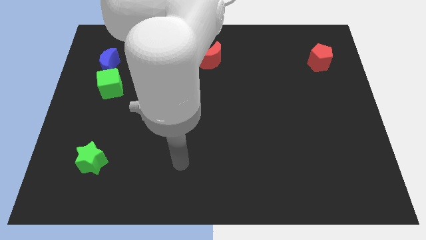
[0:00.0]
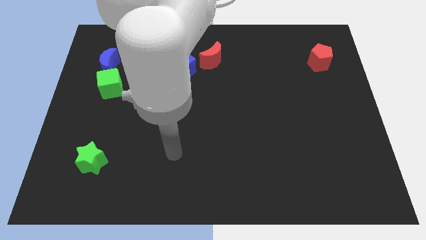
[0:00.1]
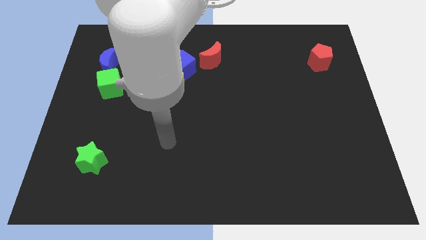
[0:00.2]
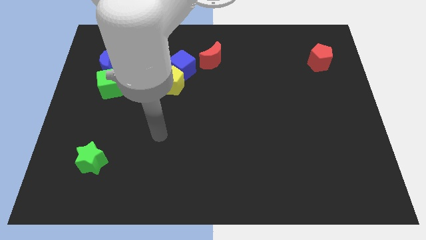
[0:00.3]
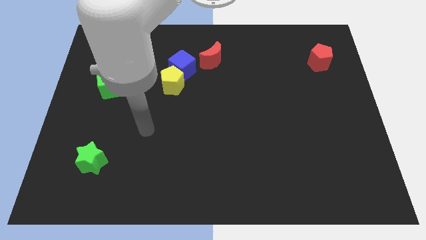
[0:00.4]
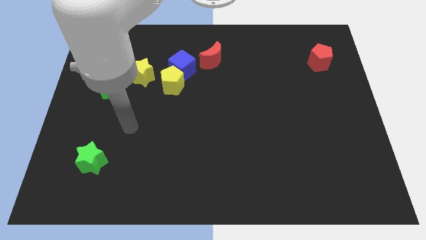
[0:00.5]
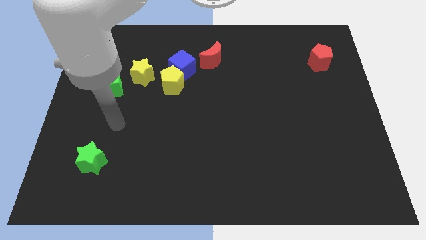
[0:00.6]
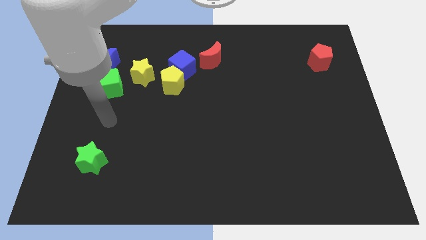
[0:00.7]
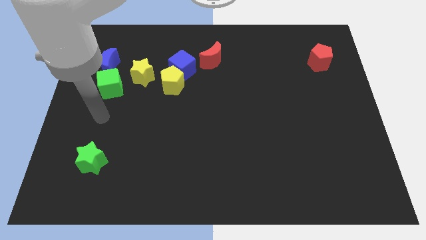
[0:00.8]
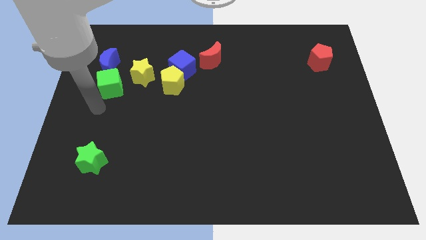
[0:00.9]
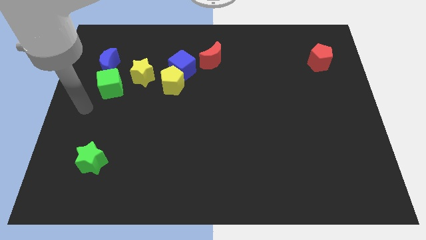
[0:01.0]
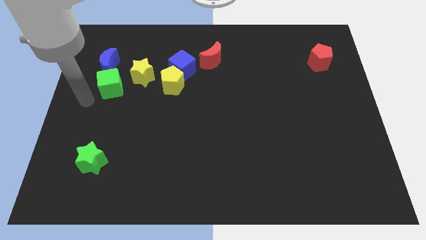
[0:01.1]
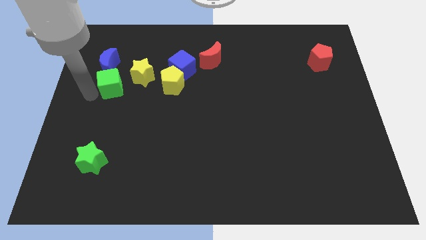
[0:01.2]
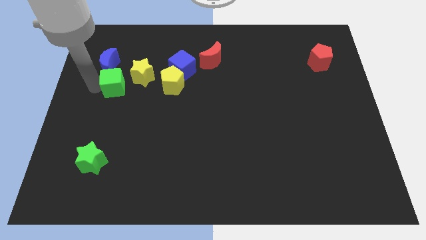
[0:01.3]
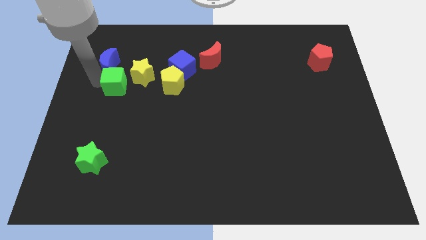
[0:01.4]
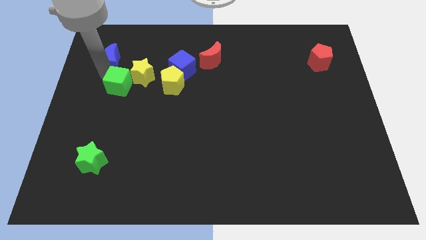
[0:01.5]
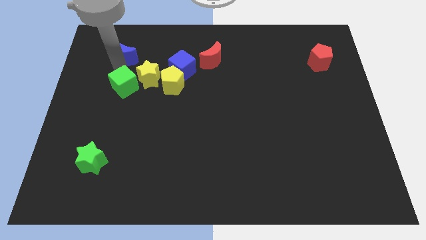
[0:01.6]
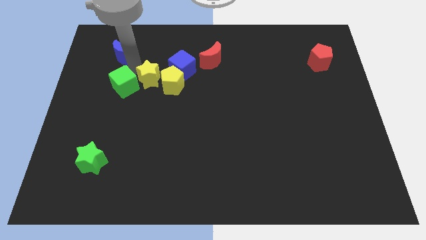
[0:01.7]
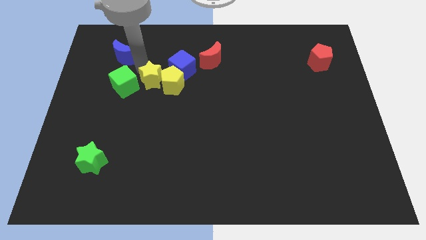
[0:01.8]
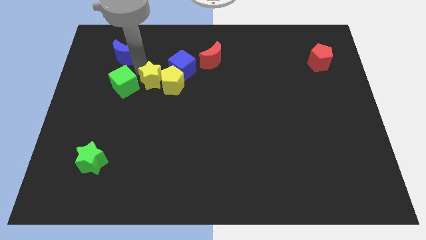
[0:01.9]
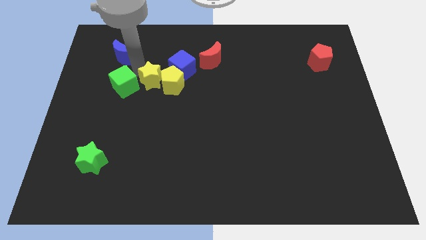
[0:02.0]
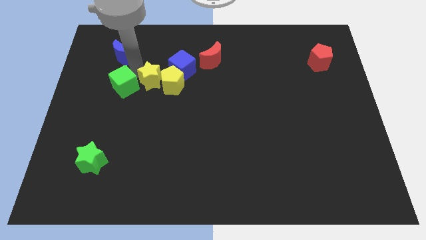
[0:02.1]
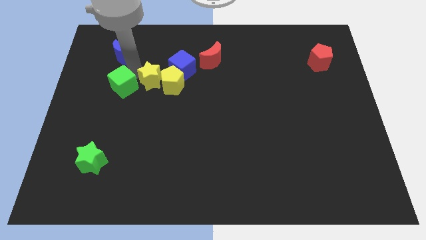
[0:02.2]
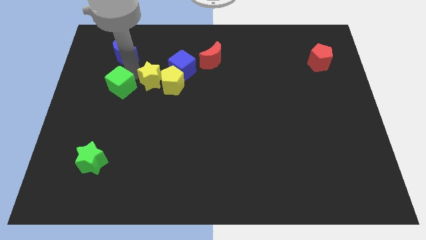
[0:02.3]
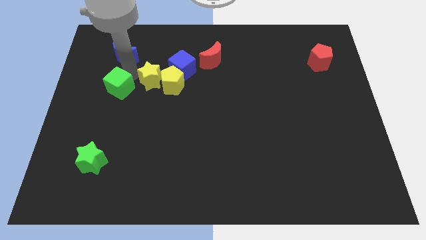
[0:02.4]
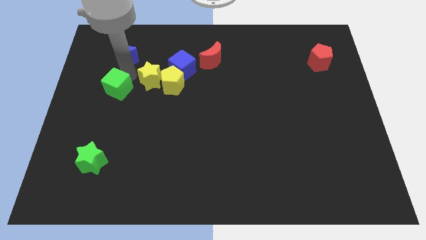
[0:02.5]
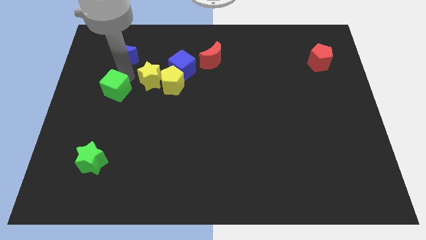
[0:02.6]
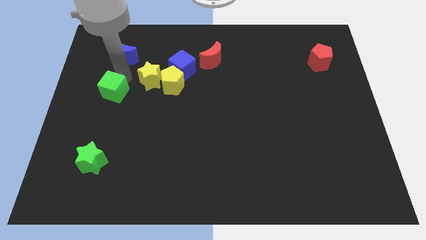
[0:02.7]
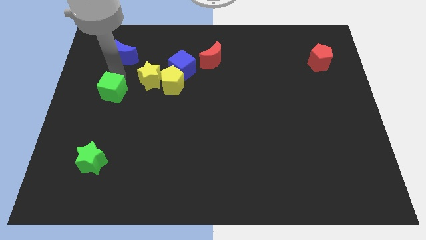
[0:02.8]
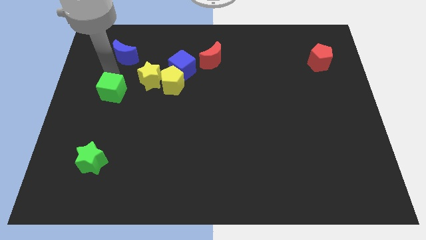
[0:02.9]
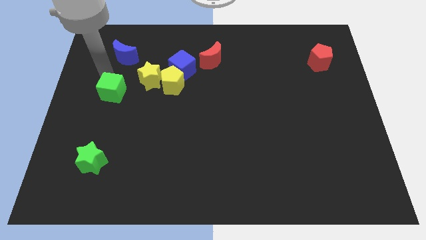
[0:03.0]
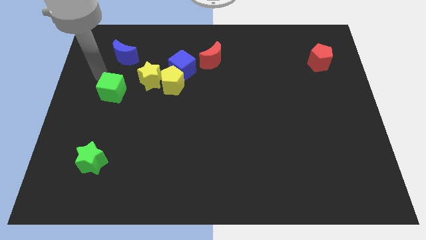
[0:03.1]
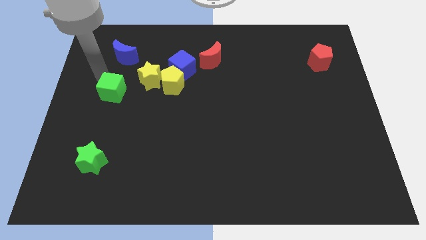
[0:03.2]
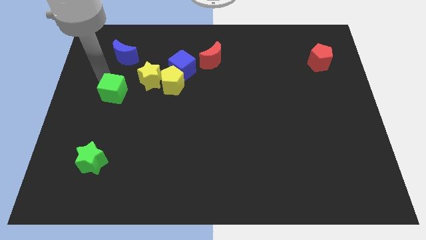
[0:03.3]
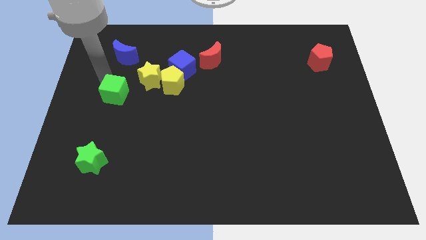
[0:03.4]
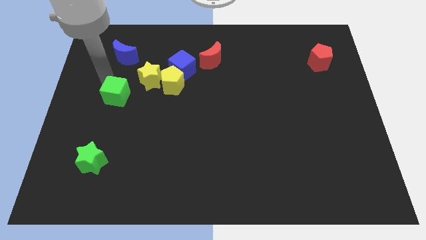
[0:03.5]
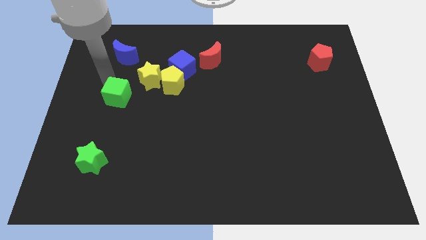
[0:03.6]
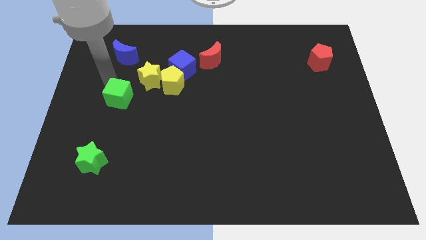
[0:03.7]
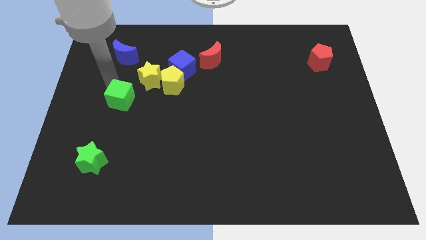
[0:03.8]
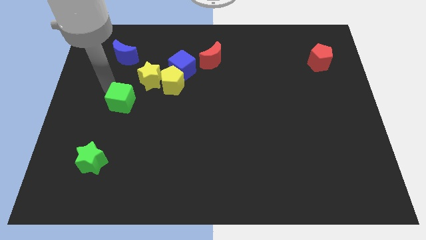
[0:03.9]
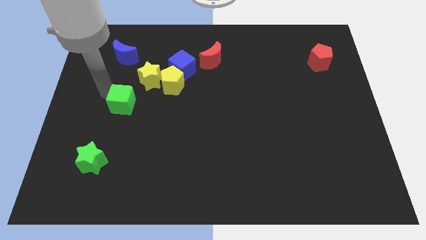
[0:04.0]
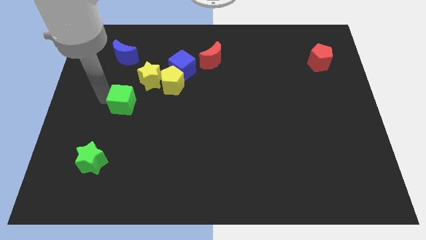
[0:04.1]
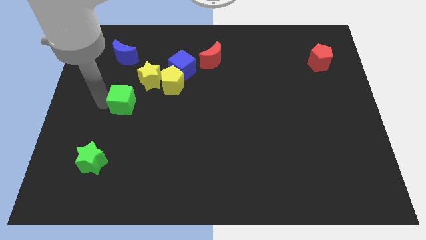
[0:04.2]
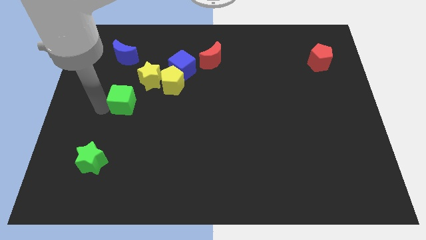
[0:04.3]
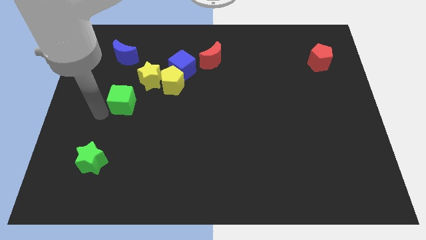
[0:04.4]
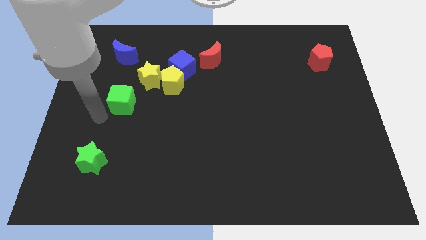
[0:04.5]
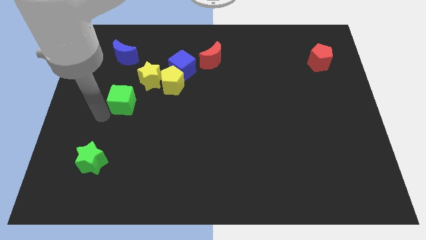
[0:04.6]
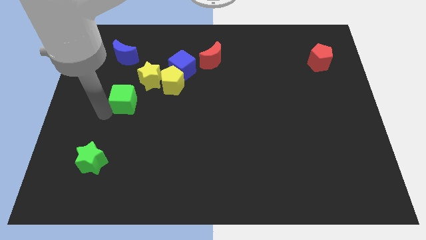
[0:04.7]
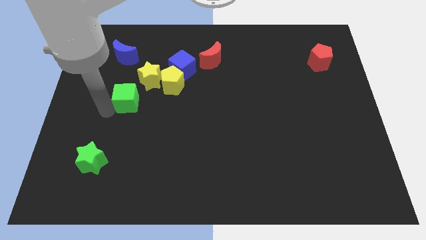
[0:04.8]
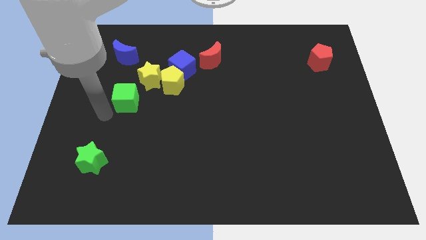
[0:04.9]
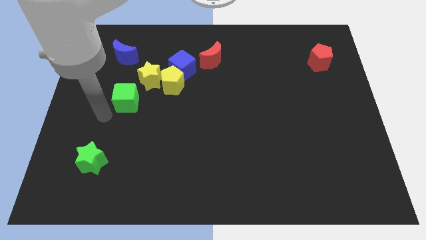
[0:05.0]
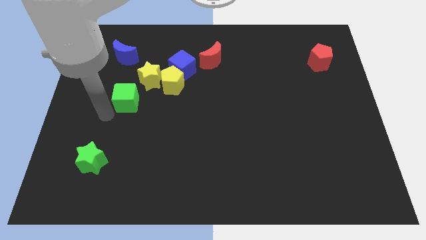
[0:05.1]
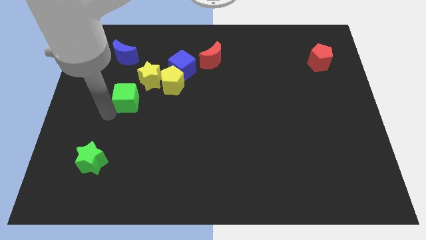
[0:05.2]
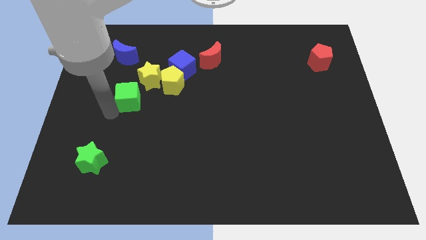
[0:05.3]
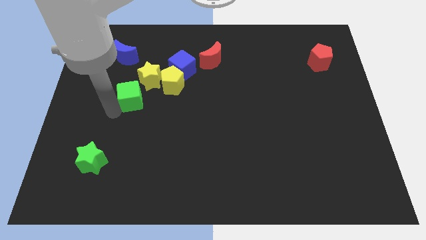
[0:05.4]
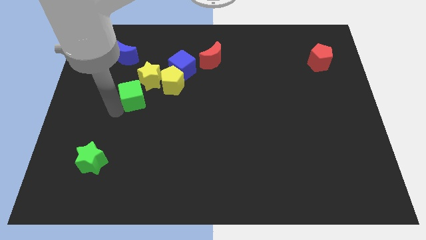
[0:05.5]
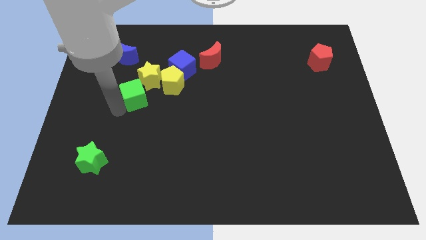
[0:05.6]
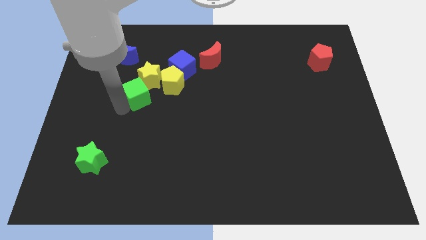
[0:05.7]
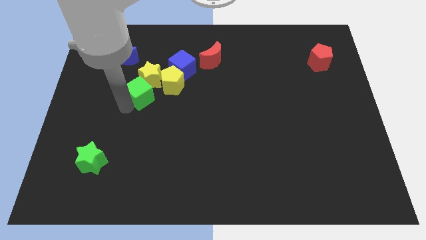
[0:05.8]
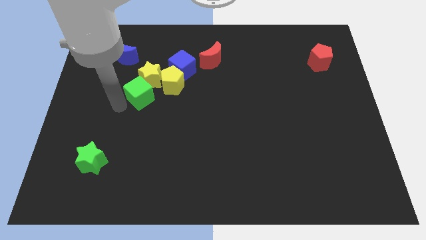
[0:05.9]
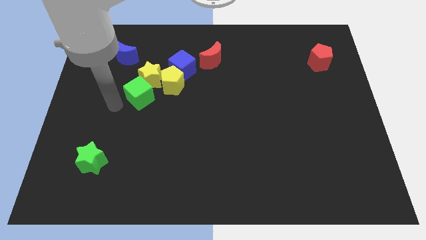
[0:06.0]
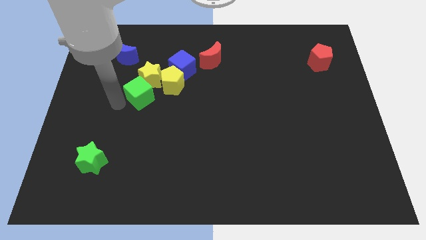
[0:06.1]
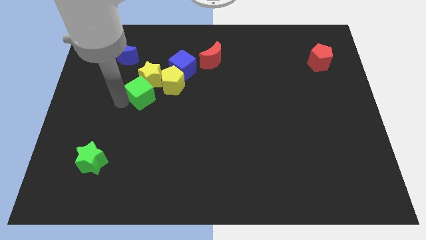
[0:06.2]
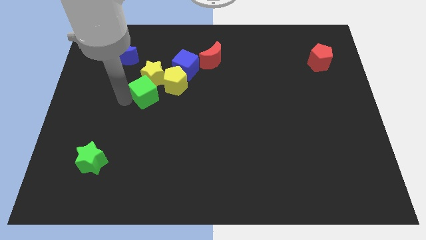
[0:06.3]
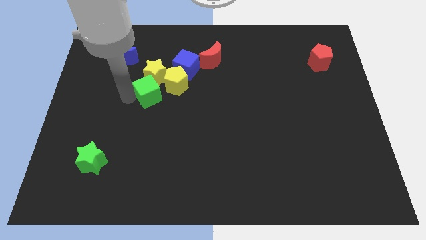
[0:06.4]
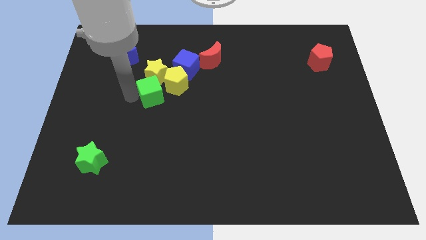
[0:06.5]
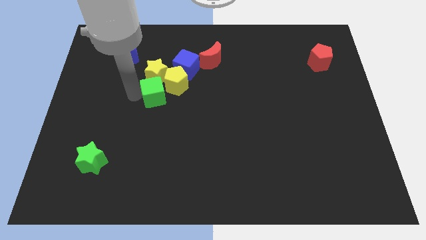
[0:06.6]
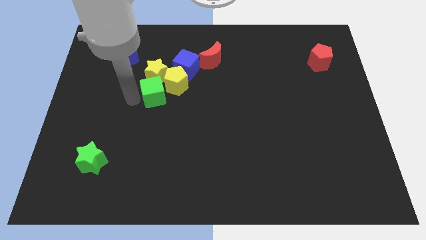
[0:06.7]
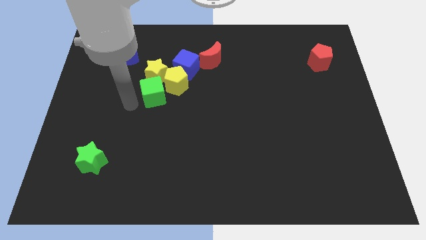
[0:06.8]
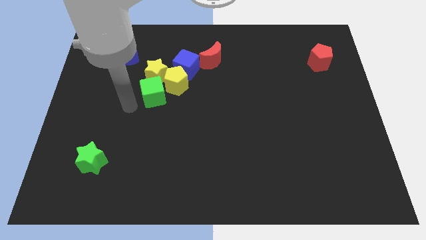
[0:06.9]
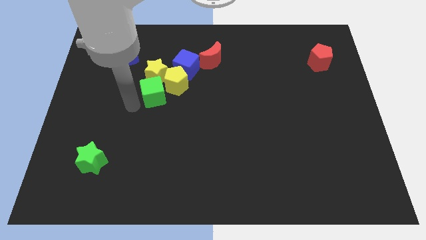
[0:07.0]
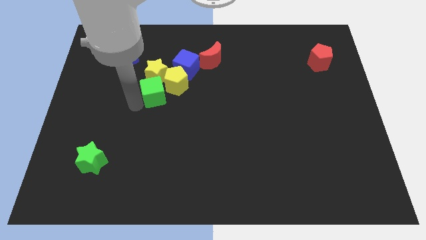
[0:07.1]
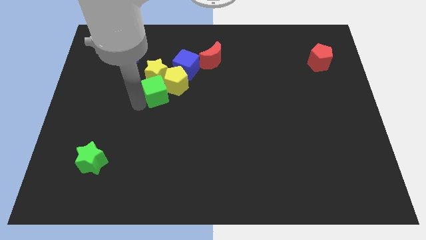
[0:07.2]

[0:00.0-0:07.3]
move the green cube next to the yellow pentagon
